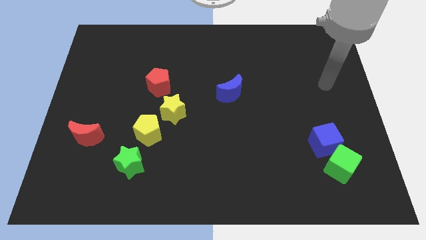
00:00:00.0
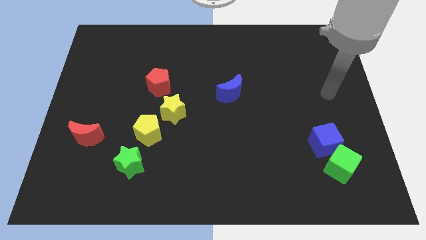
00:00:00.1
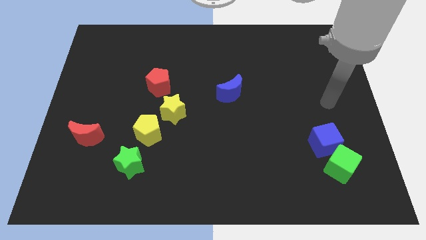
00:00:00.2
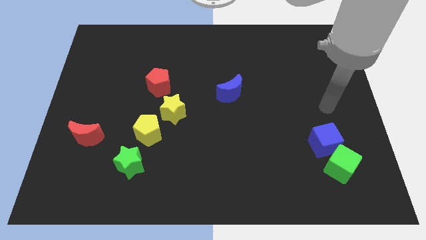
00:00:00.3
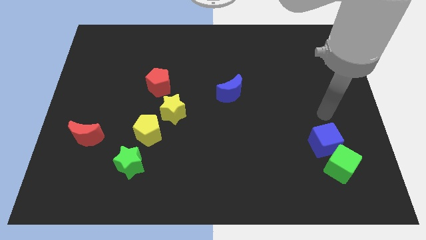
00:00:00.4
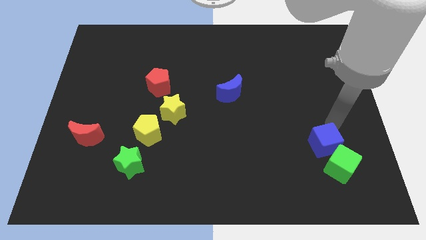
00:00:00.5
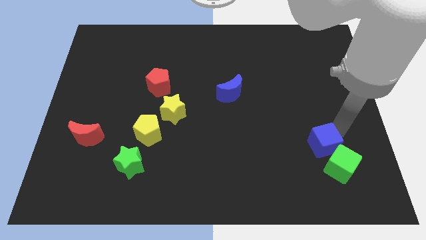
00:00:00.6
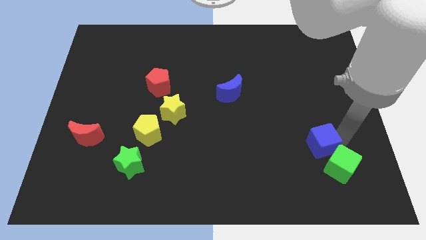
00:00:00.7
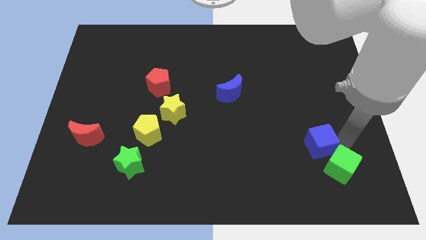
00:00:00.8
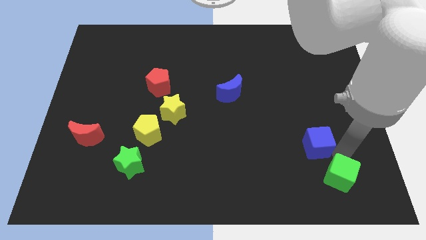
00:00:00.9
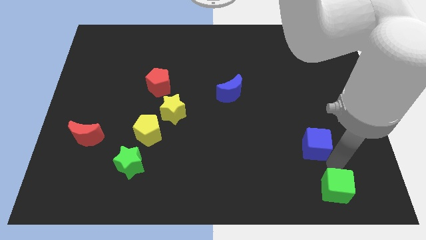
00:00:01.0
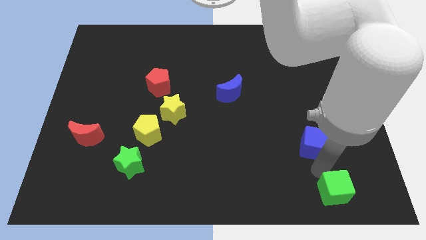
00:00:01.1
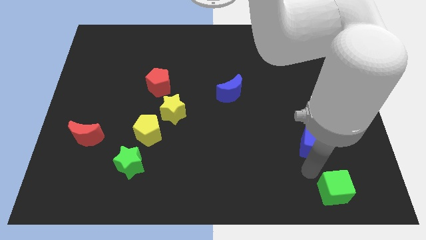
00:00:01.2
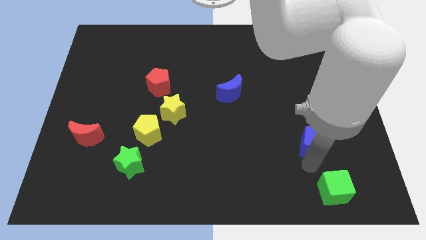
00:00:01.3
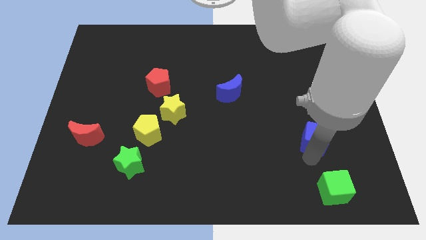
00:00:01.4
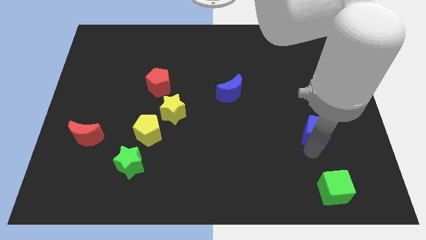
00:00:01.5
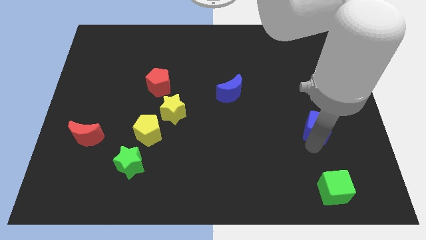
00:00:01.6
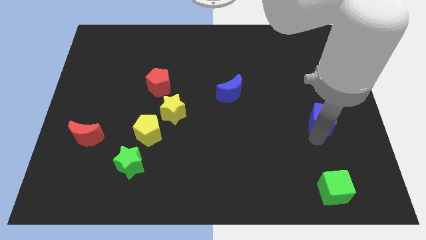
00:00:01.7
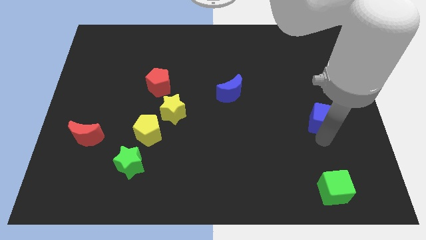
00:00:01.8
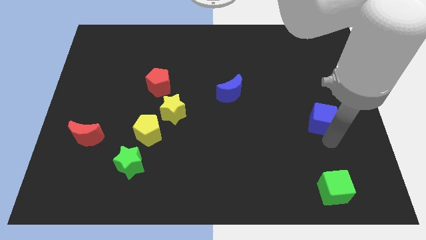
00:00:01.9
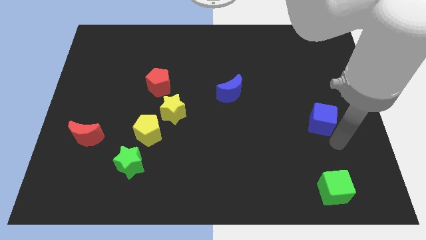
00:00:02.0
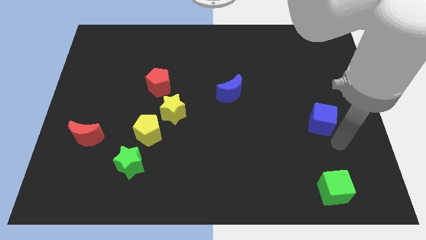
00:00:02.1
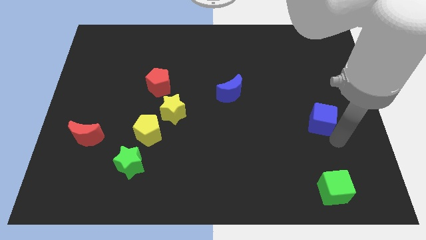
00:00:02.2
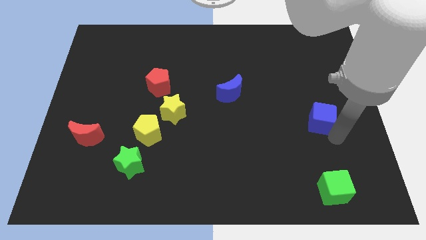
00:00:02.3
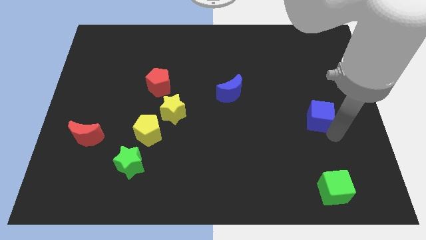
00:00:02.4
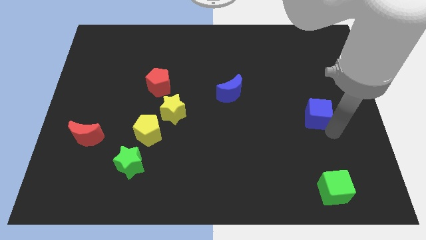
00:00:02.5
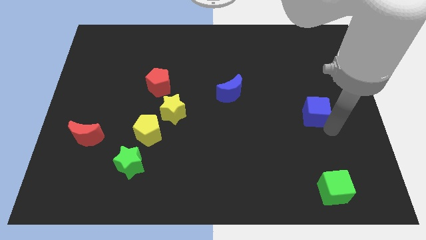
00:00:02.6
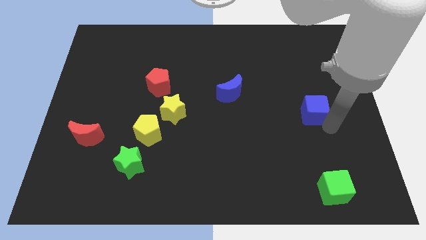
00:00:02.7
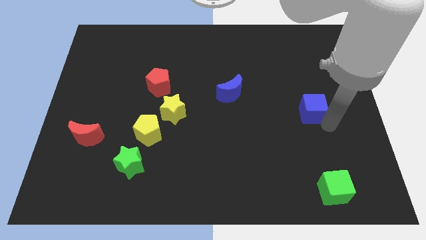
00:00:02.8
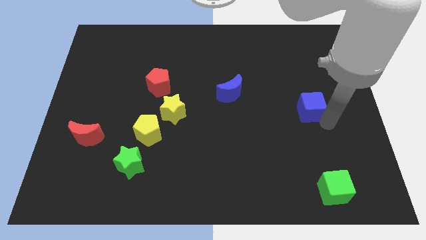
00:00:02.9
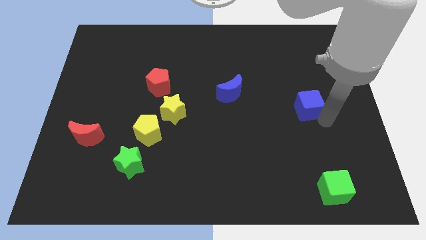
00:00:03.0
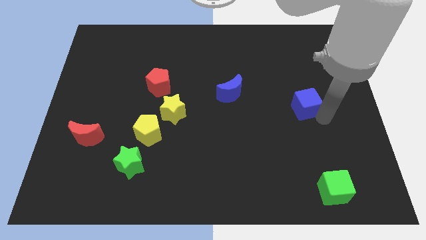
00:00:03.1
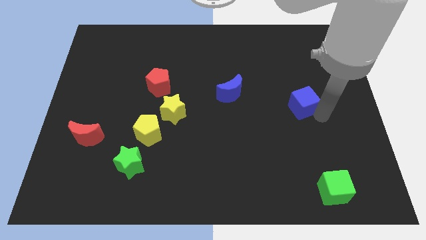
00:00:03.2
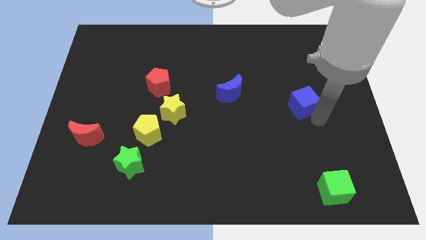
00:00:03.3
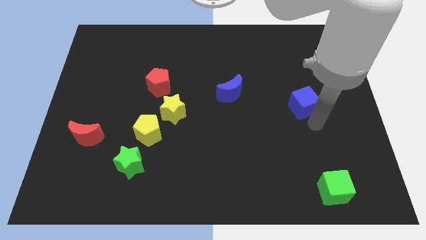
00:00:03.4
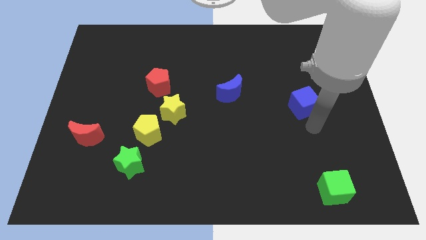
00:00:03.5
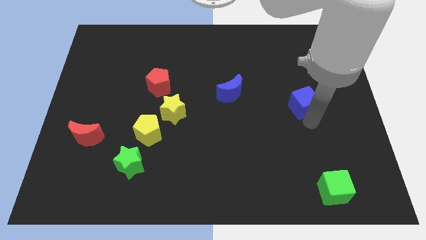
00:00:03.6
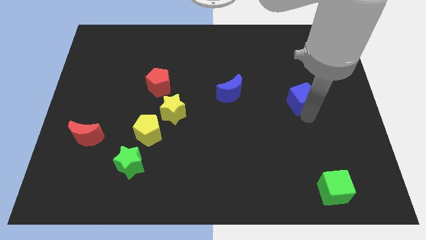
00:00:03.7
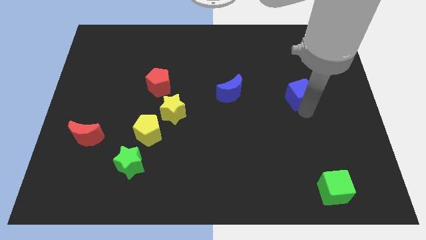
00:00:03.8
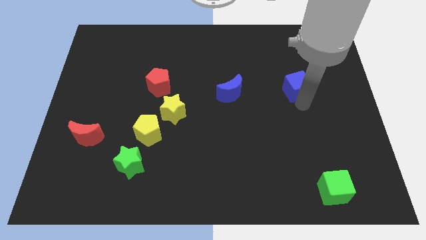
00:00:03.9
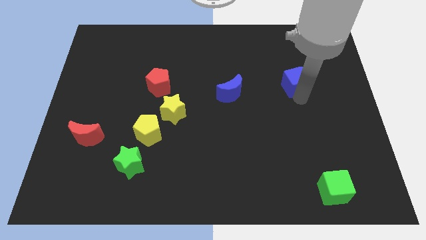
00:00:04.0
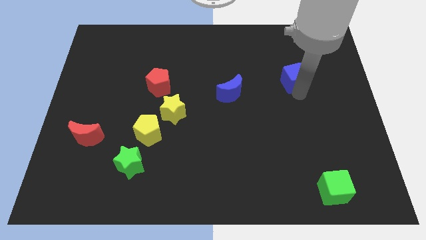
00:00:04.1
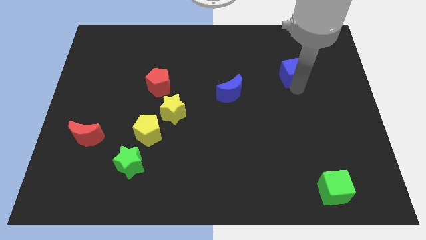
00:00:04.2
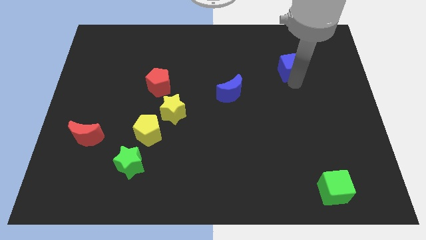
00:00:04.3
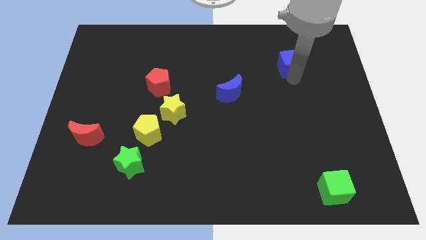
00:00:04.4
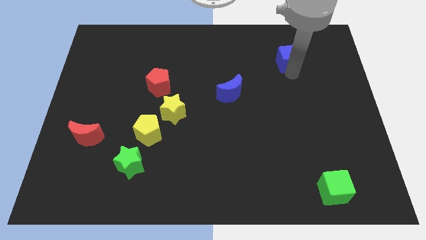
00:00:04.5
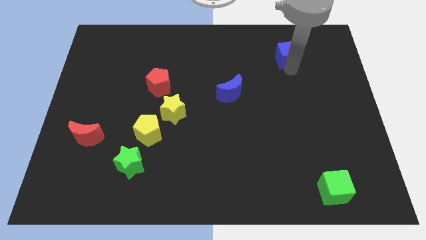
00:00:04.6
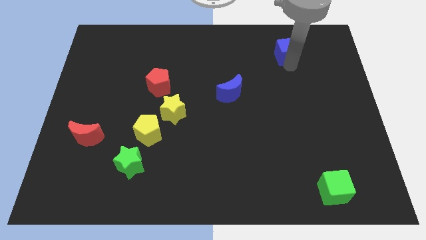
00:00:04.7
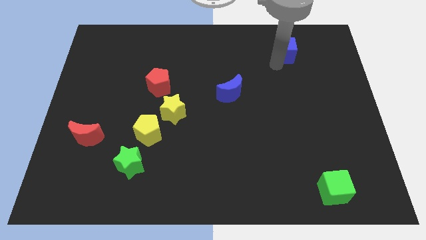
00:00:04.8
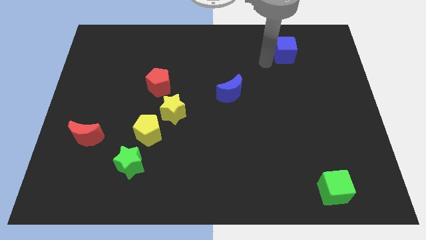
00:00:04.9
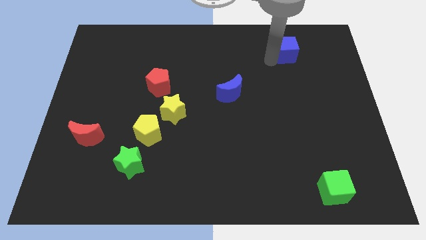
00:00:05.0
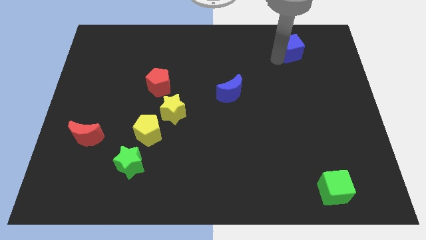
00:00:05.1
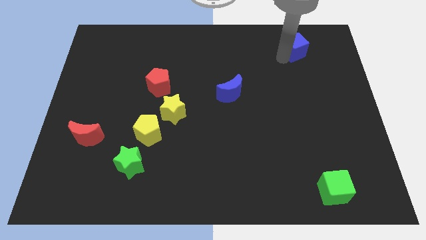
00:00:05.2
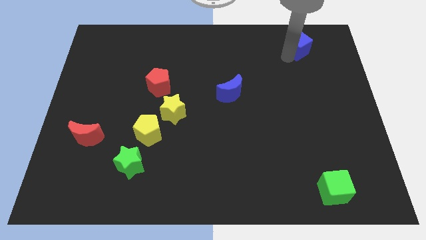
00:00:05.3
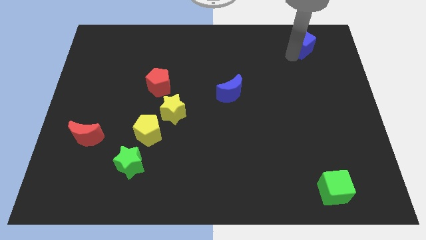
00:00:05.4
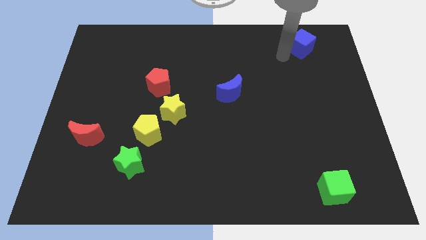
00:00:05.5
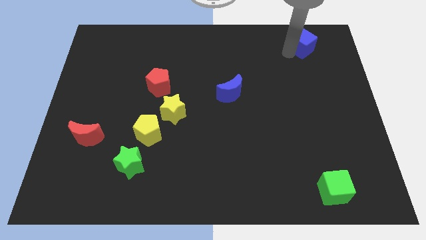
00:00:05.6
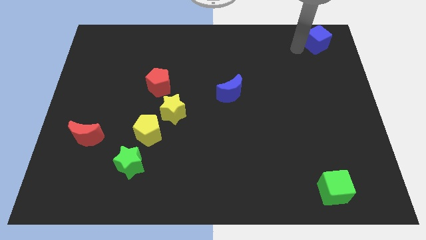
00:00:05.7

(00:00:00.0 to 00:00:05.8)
push the blue cube to the top right of the board
